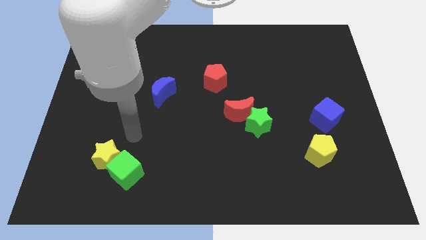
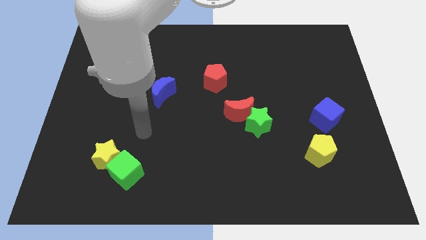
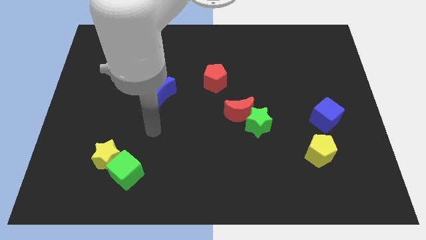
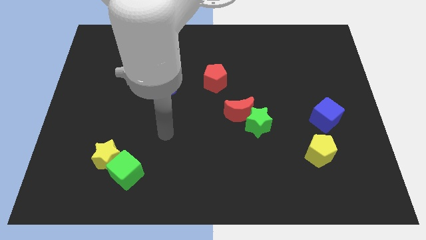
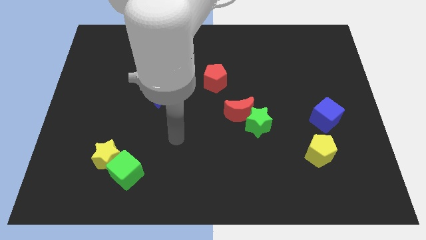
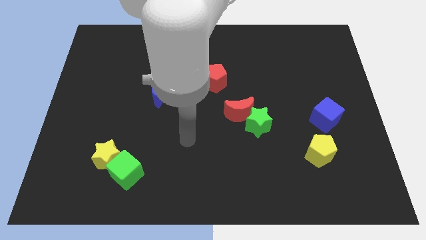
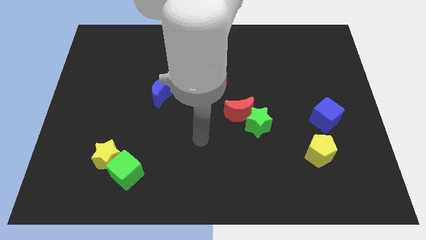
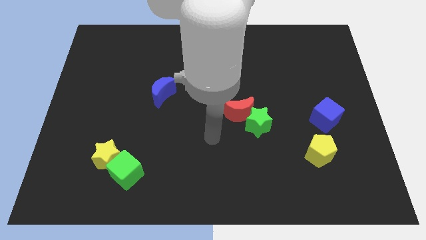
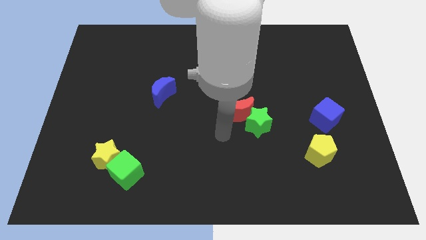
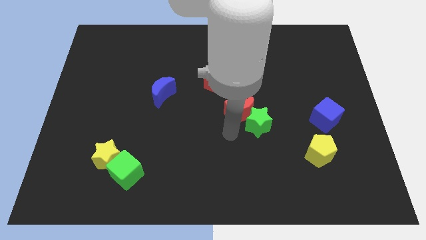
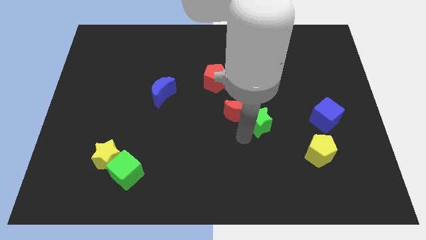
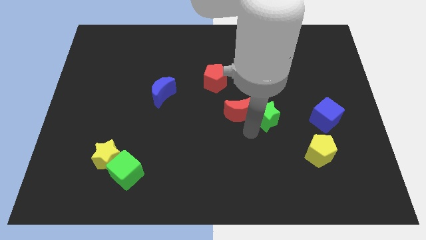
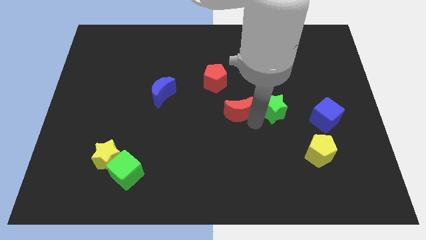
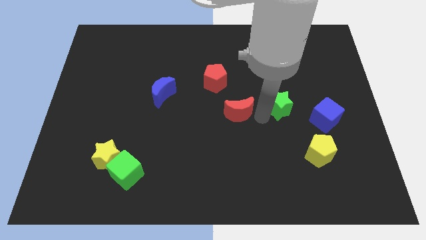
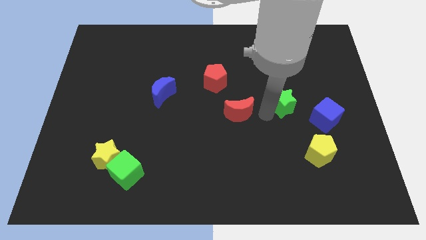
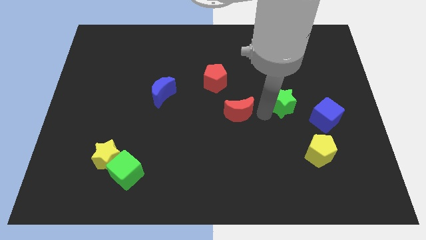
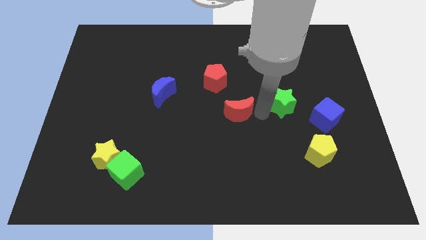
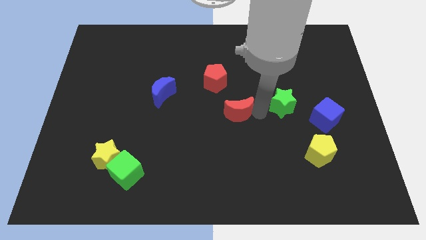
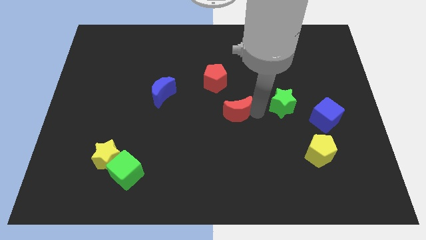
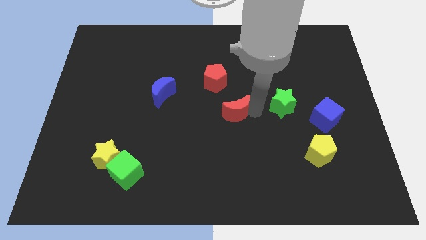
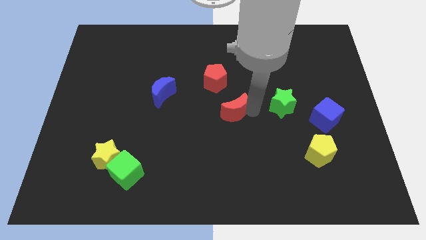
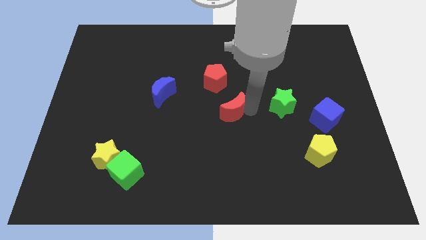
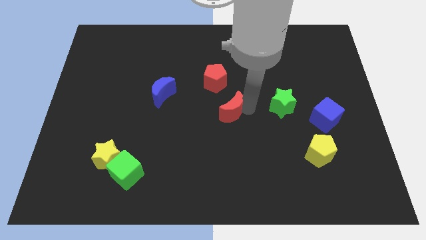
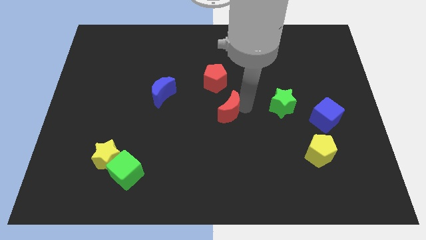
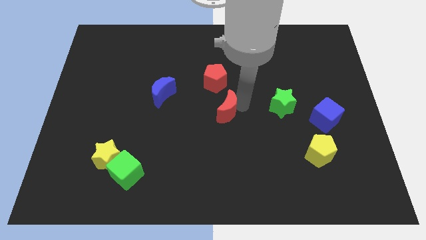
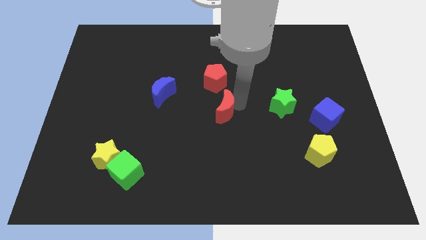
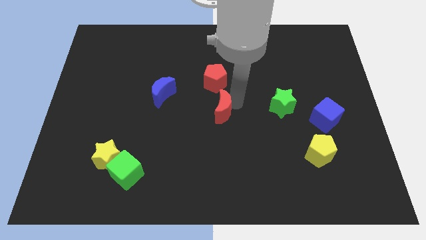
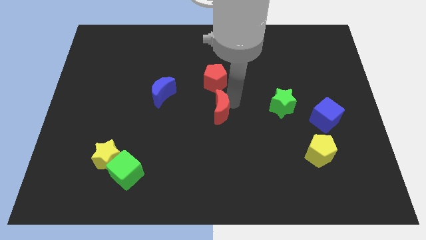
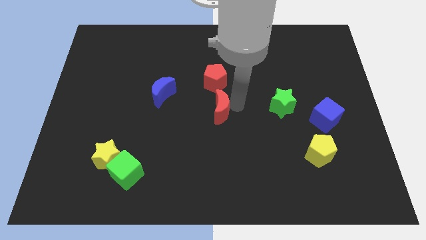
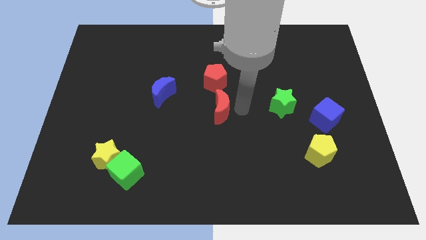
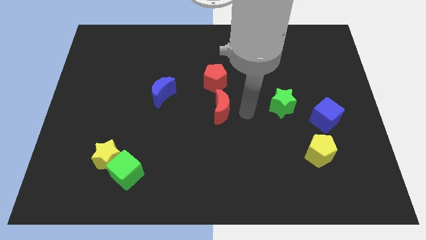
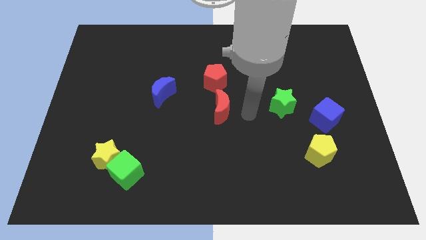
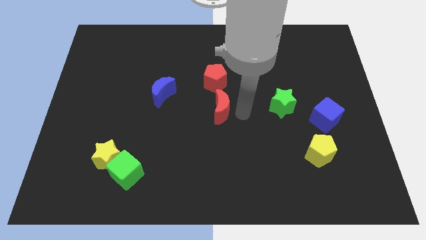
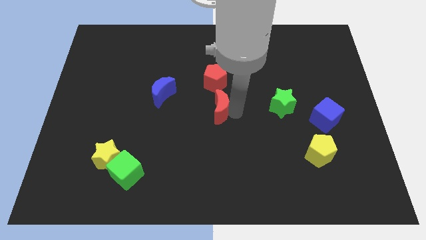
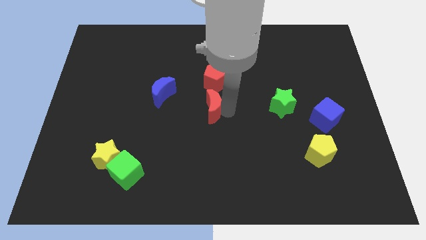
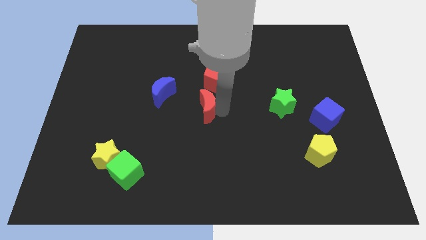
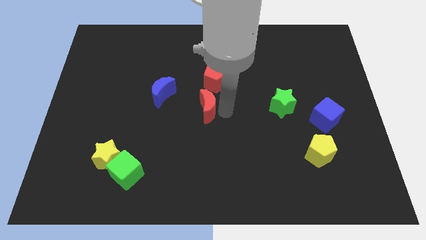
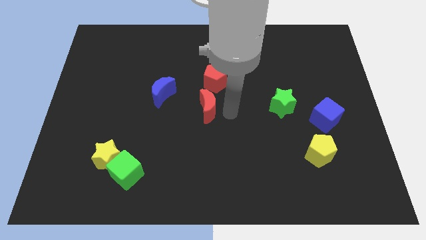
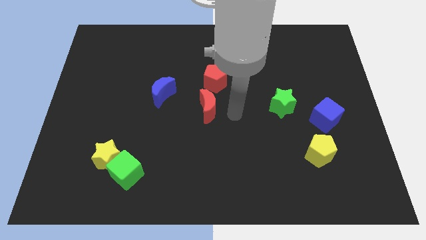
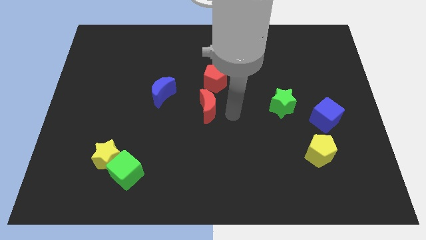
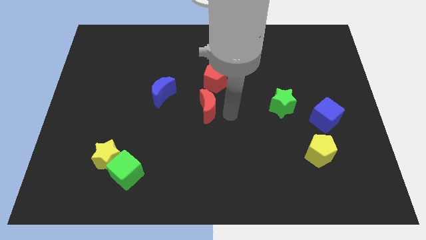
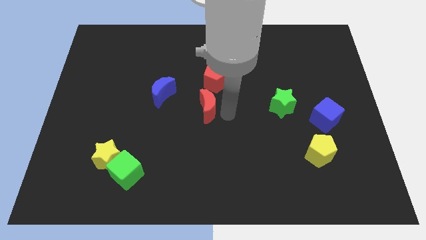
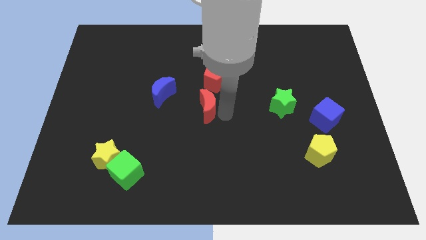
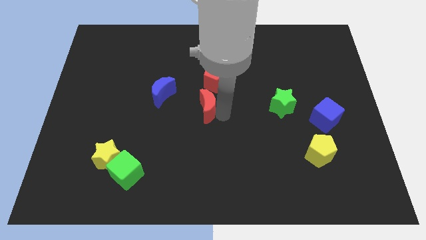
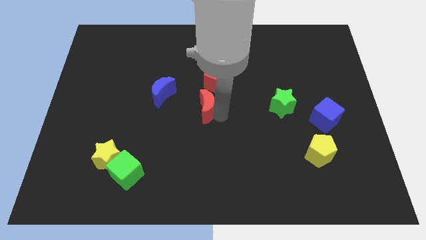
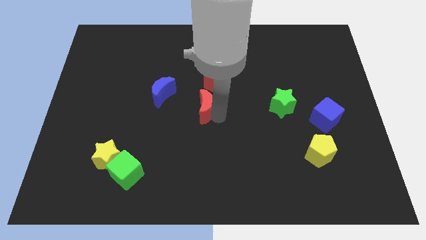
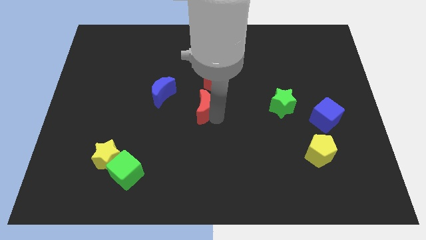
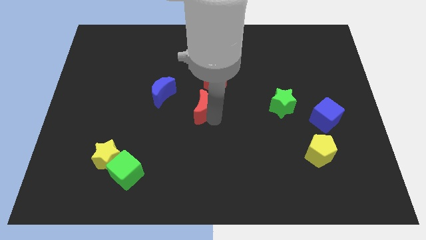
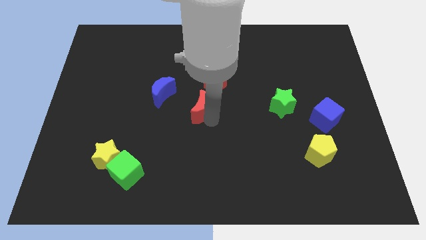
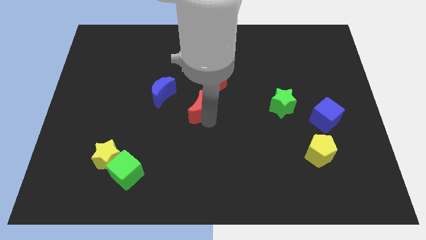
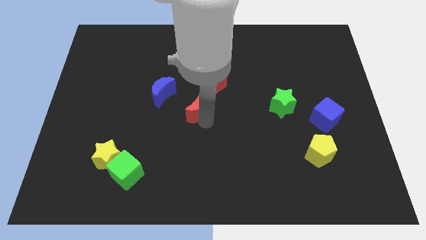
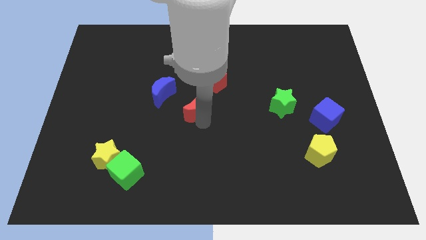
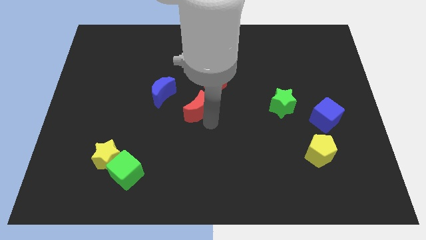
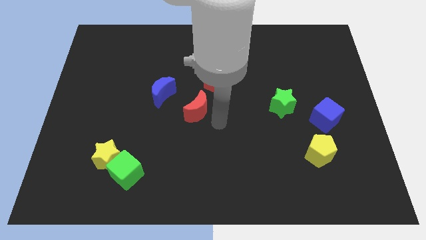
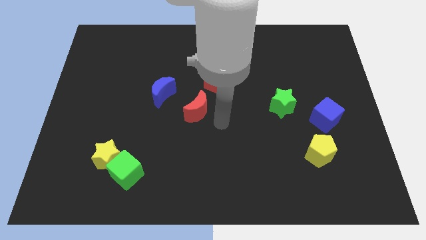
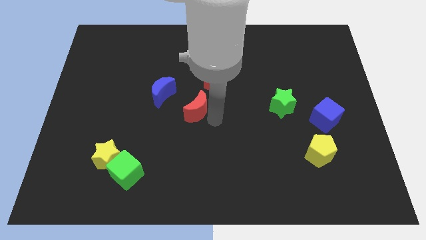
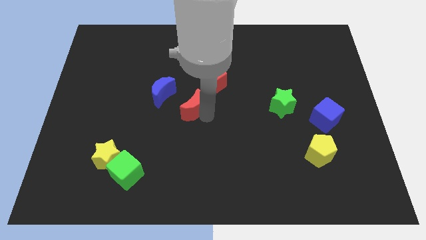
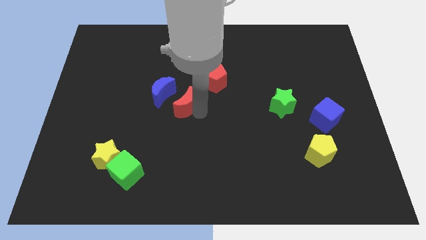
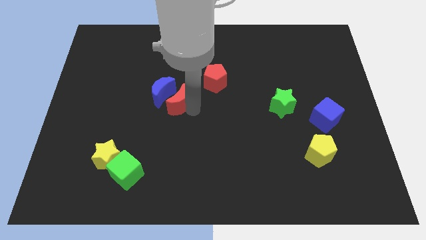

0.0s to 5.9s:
slide the red moon to the blue moon

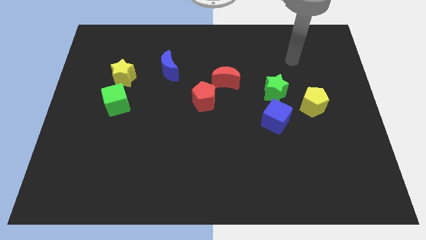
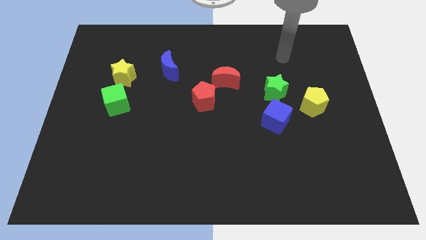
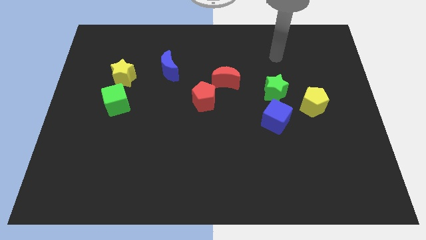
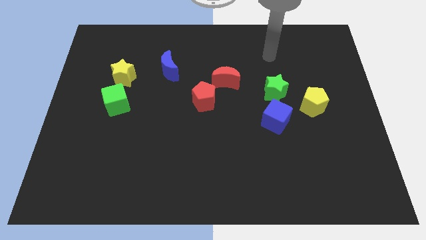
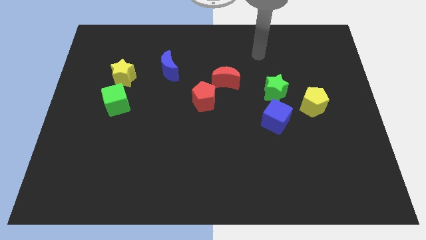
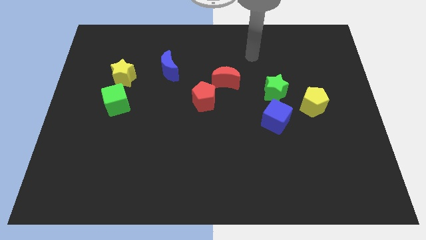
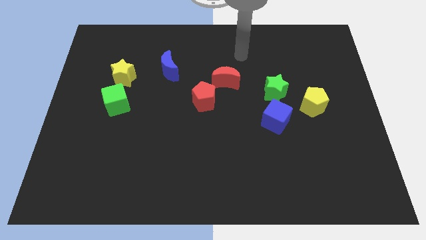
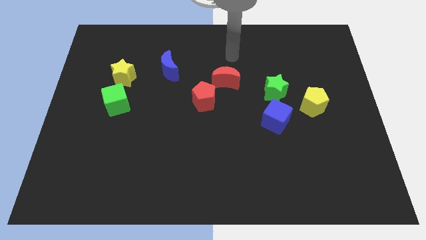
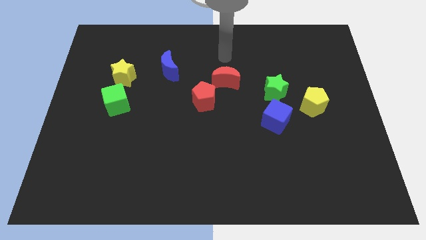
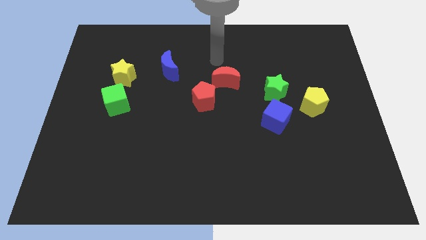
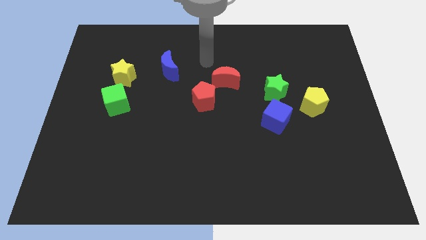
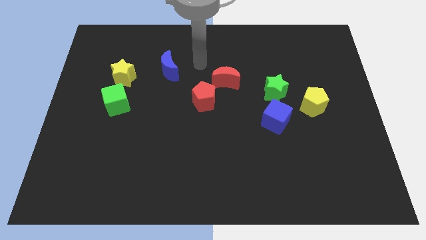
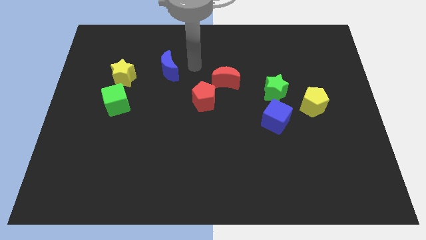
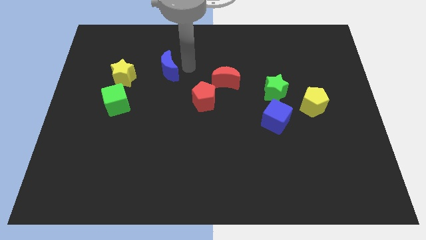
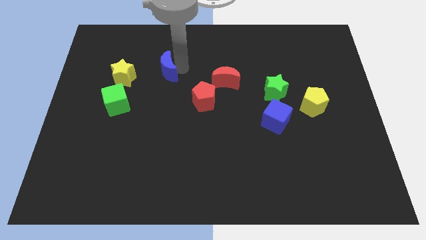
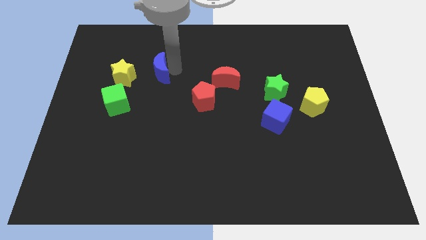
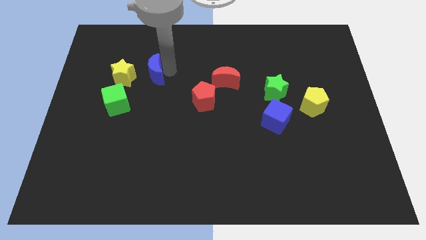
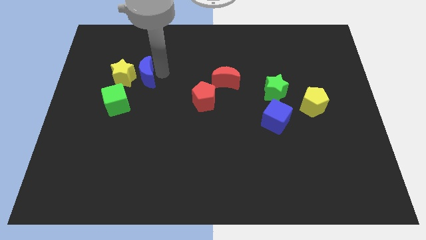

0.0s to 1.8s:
slide the blue moon close to the yellow star
